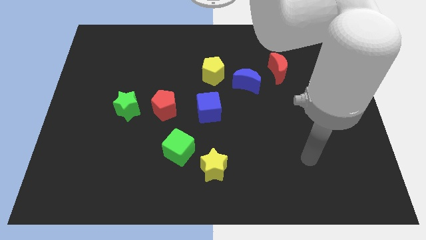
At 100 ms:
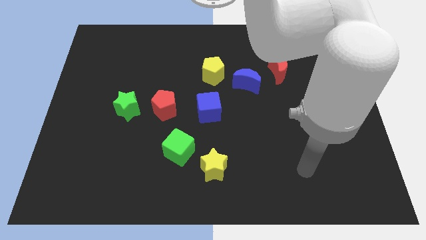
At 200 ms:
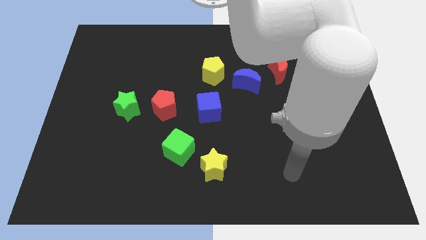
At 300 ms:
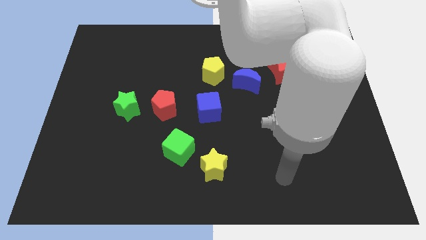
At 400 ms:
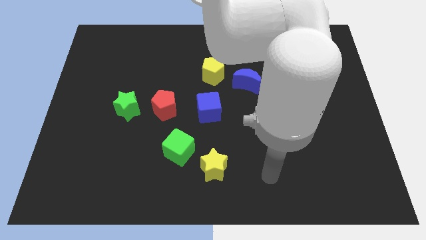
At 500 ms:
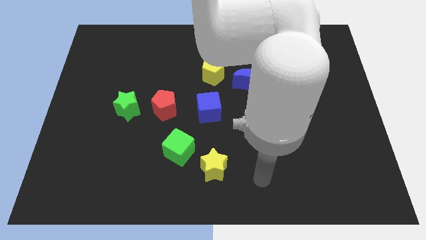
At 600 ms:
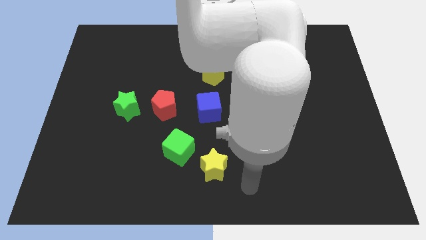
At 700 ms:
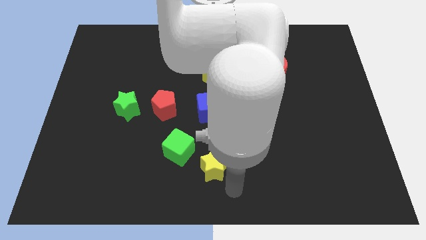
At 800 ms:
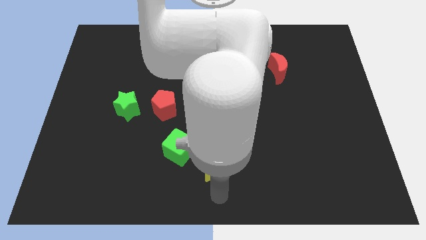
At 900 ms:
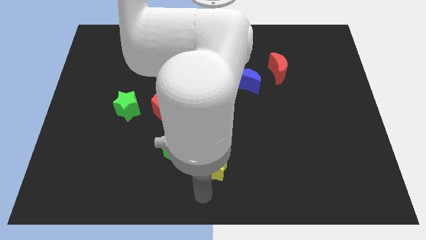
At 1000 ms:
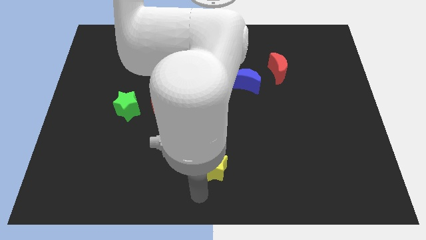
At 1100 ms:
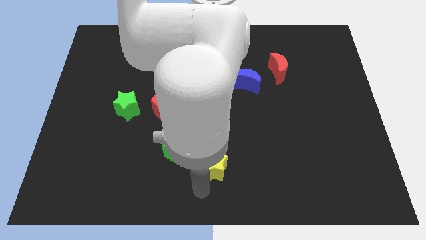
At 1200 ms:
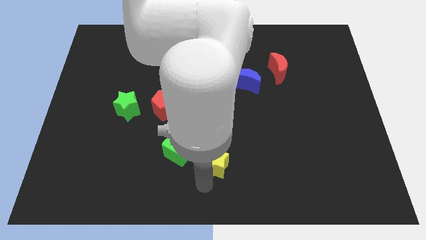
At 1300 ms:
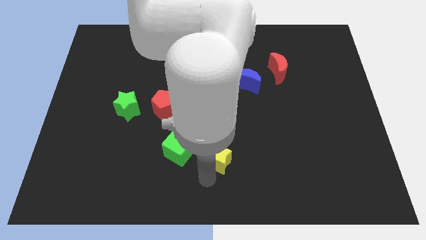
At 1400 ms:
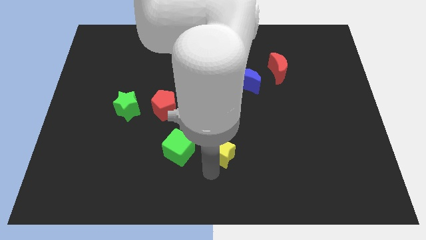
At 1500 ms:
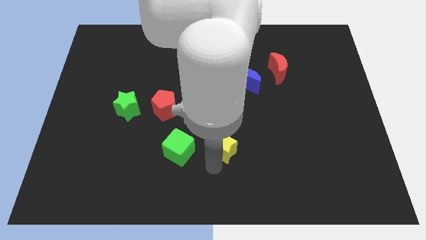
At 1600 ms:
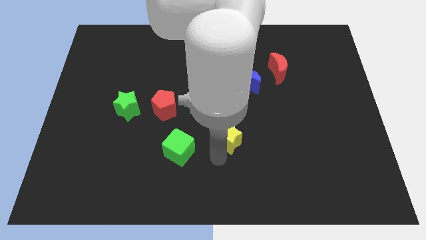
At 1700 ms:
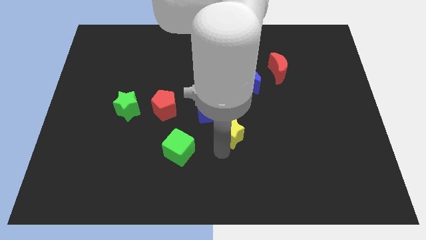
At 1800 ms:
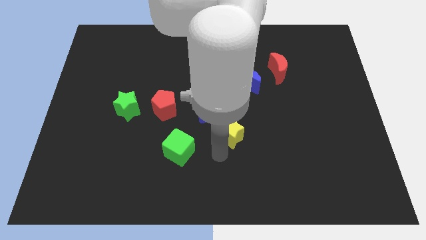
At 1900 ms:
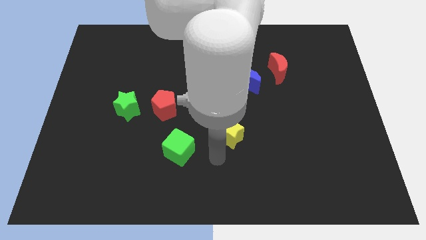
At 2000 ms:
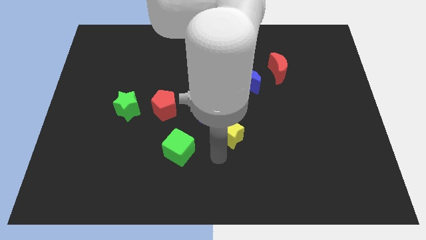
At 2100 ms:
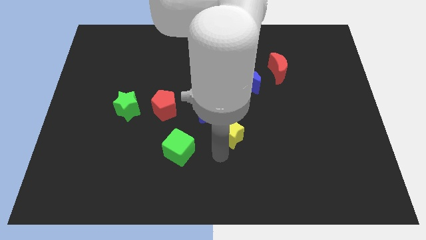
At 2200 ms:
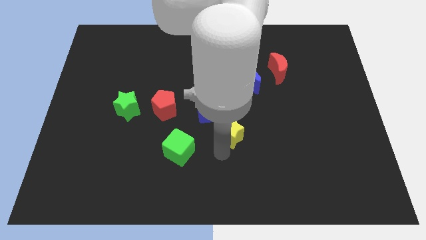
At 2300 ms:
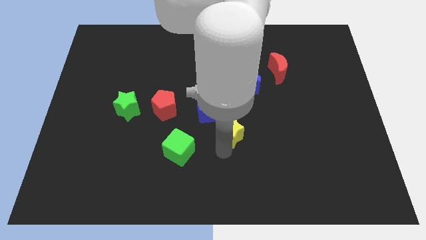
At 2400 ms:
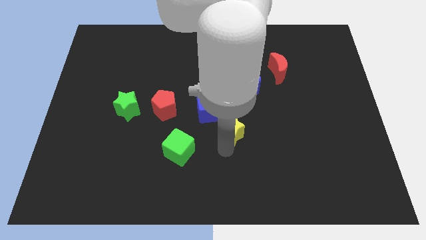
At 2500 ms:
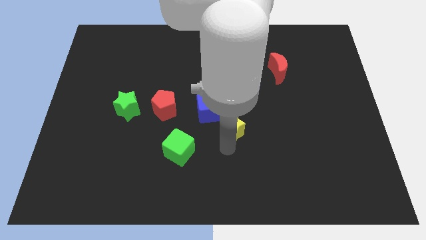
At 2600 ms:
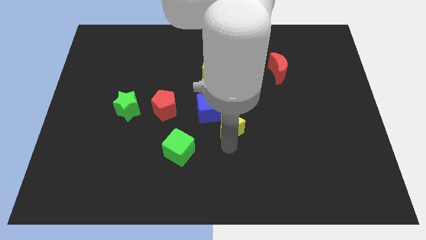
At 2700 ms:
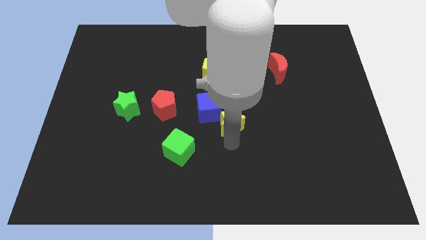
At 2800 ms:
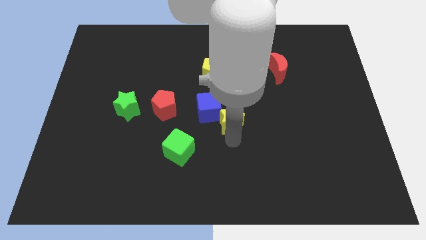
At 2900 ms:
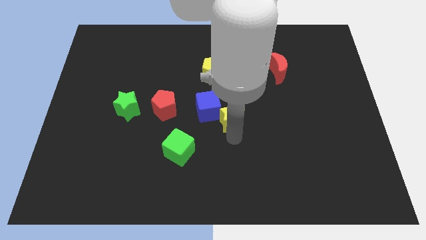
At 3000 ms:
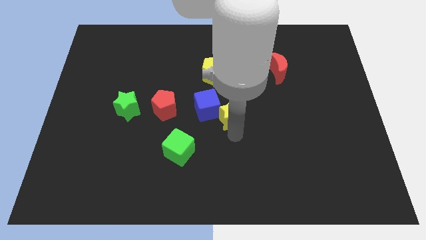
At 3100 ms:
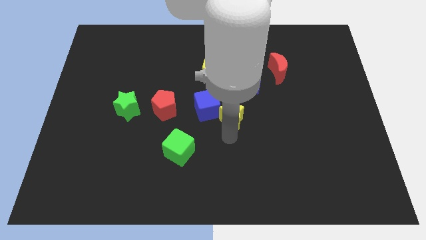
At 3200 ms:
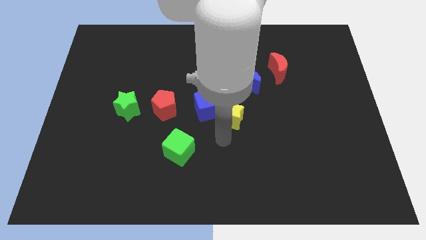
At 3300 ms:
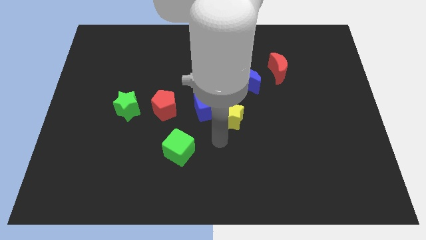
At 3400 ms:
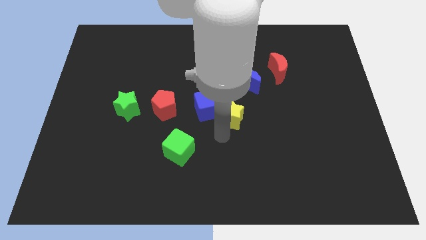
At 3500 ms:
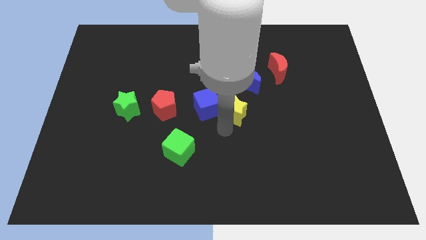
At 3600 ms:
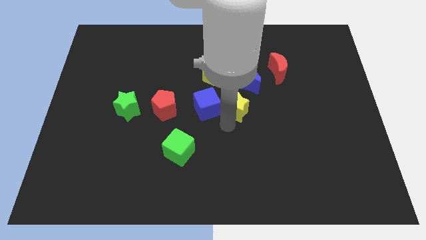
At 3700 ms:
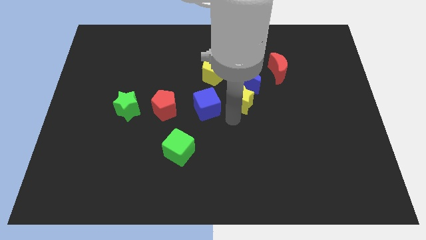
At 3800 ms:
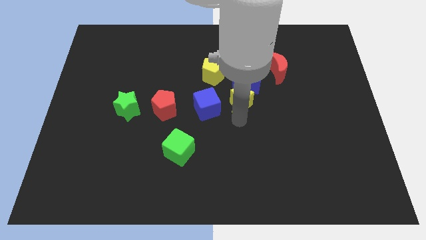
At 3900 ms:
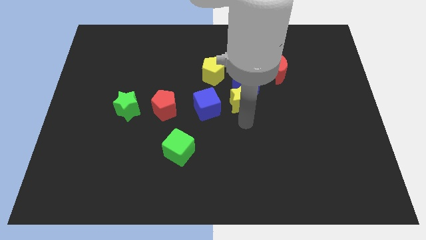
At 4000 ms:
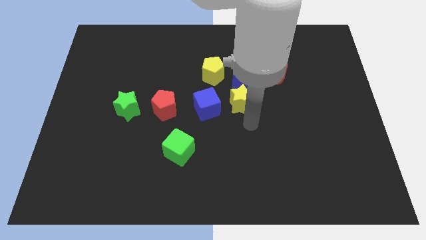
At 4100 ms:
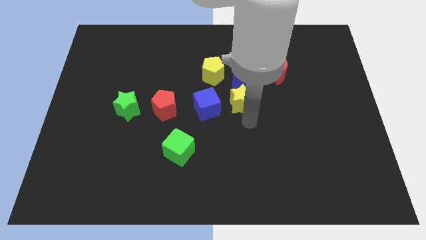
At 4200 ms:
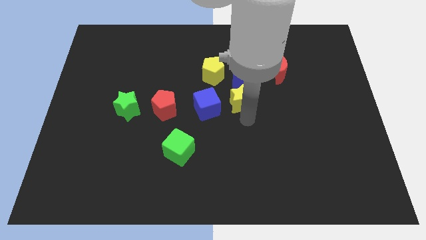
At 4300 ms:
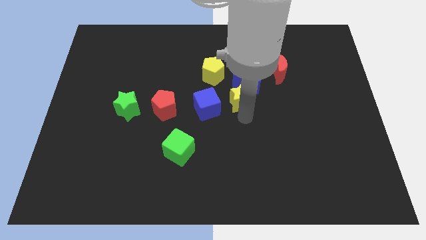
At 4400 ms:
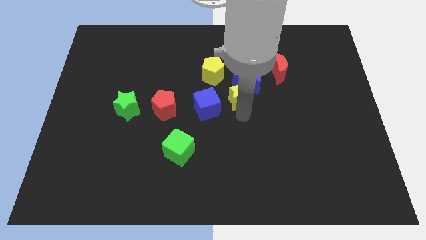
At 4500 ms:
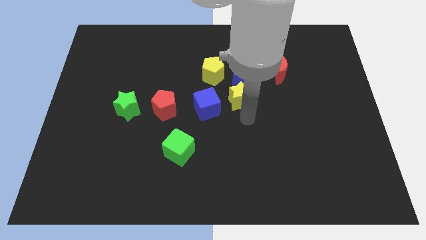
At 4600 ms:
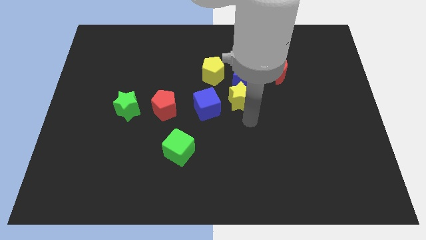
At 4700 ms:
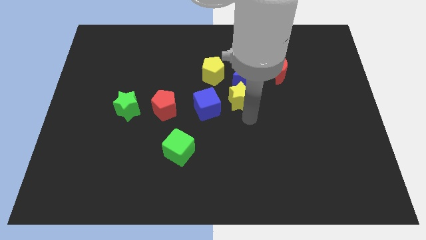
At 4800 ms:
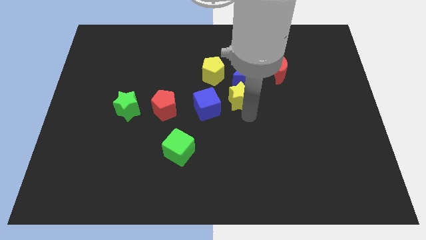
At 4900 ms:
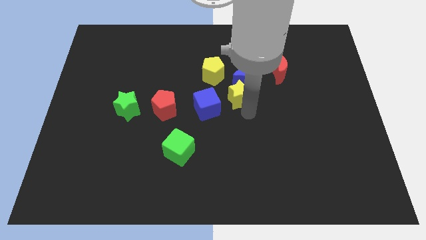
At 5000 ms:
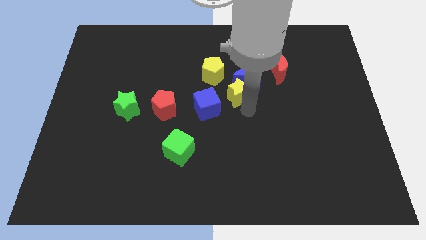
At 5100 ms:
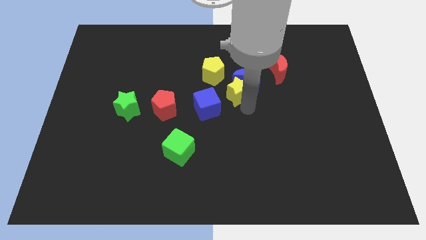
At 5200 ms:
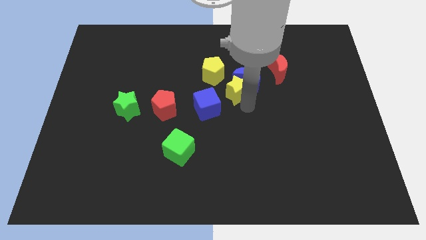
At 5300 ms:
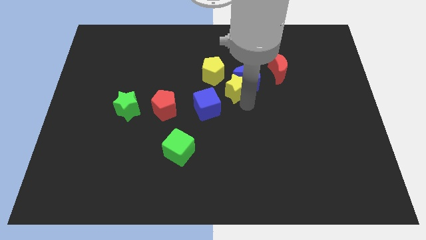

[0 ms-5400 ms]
move the yellow star up

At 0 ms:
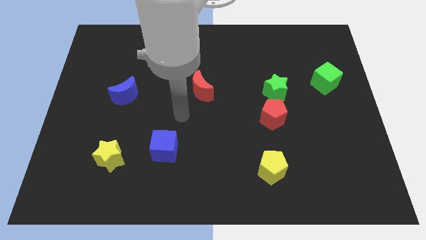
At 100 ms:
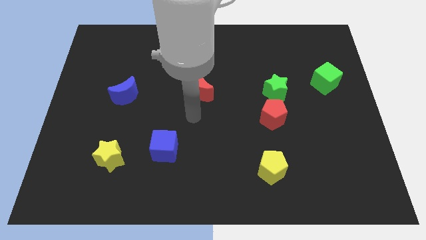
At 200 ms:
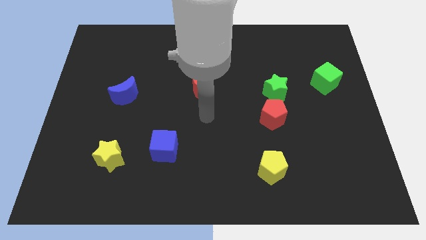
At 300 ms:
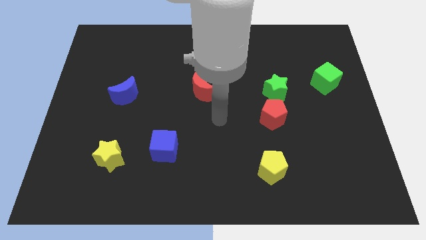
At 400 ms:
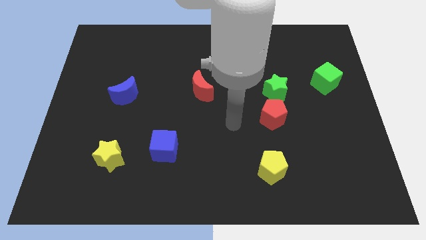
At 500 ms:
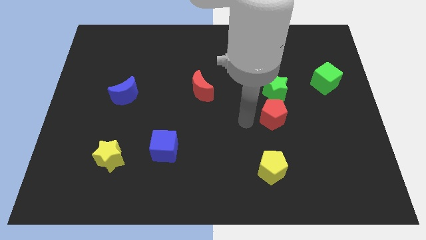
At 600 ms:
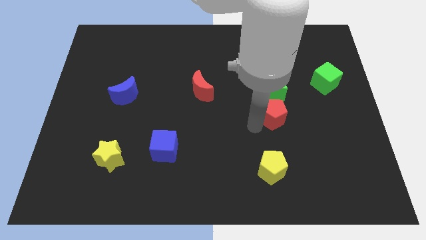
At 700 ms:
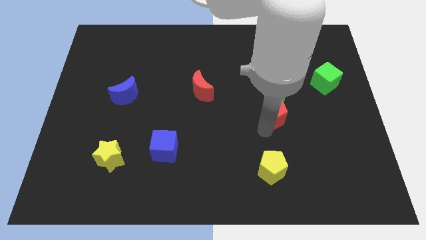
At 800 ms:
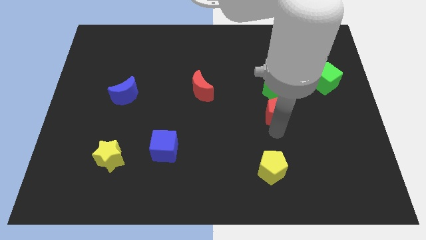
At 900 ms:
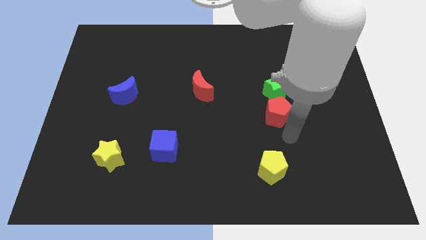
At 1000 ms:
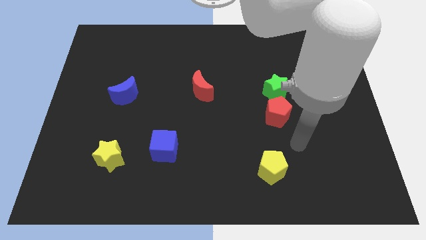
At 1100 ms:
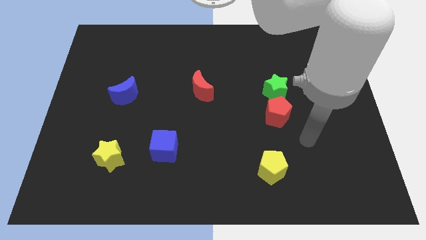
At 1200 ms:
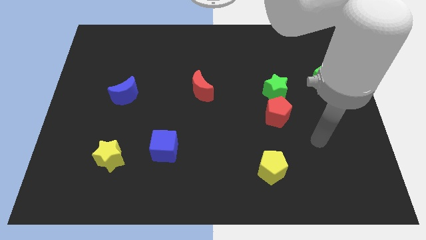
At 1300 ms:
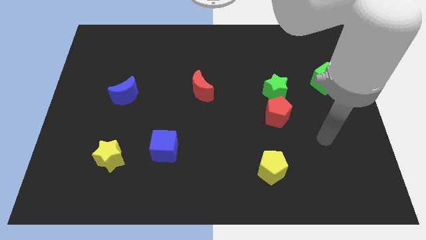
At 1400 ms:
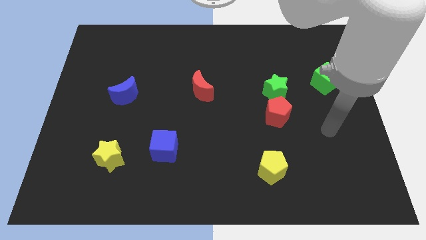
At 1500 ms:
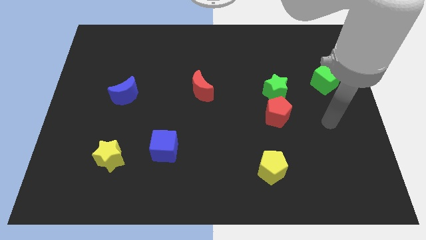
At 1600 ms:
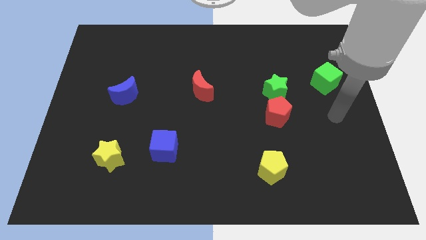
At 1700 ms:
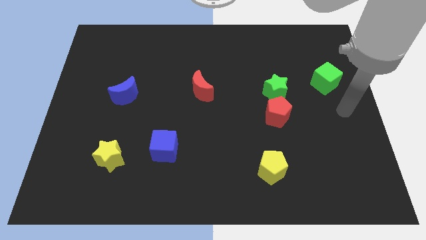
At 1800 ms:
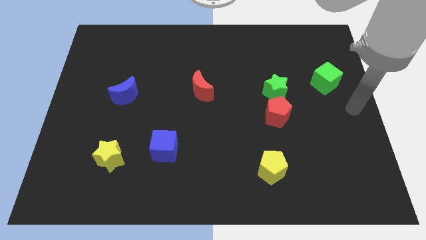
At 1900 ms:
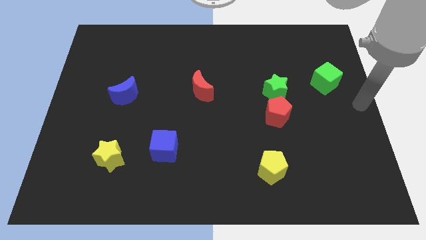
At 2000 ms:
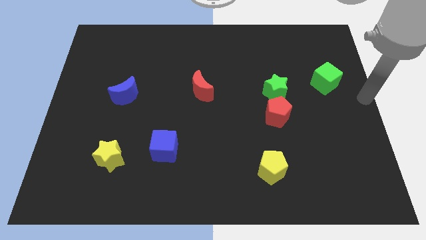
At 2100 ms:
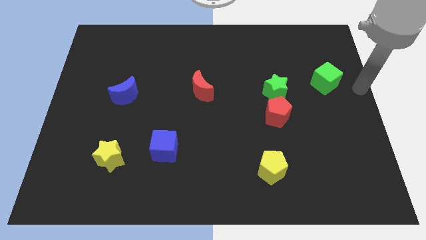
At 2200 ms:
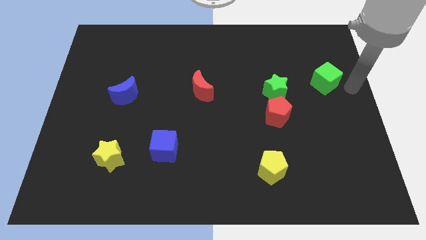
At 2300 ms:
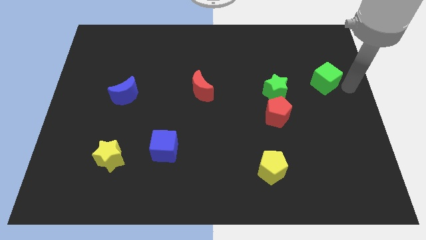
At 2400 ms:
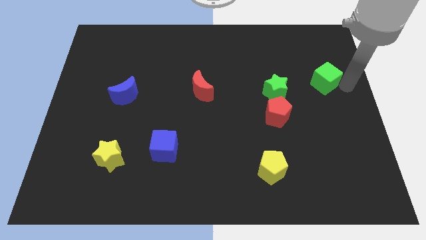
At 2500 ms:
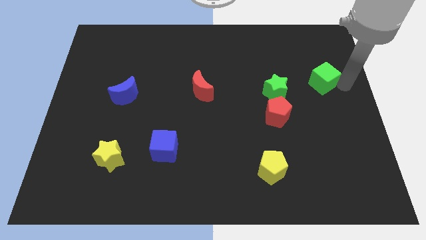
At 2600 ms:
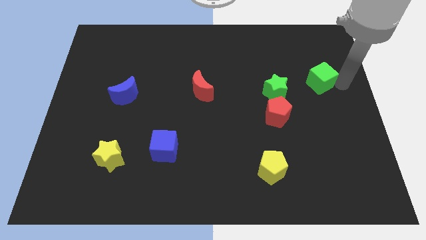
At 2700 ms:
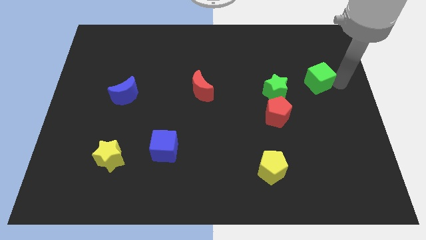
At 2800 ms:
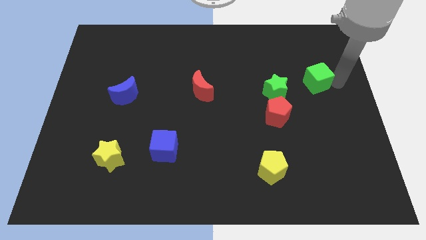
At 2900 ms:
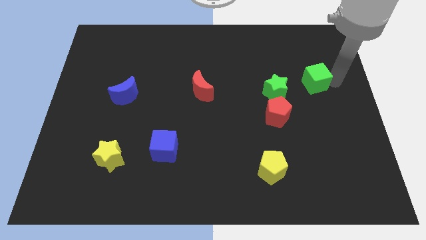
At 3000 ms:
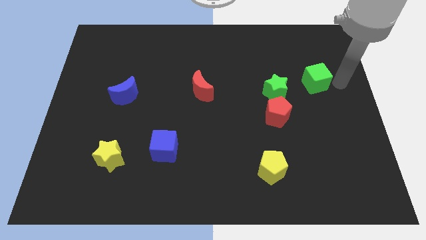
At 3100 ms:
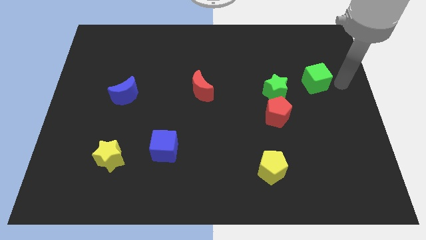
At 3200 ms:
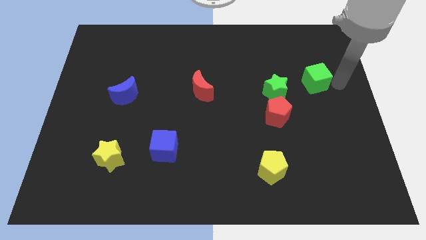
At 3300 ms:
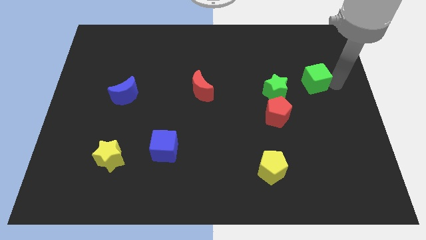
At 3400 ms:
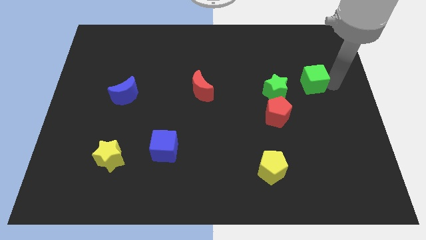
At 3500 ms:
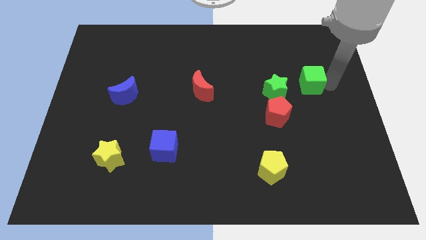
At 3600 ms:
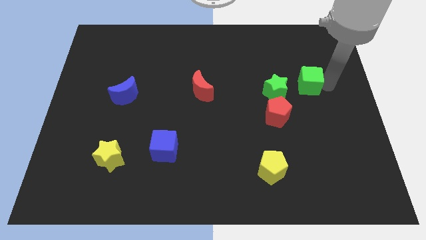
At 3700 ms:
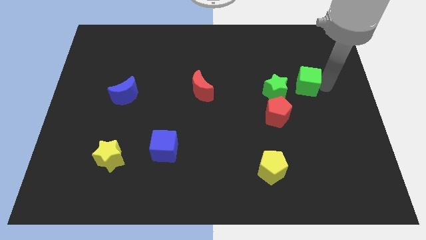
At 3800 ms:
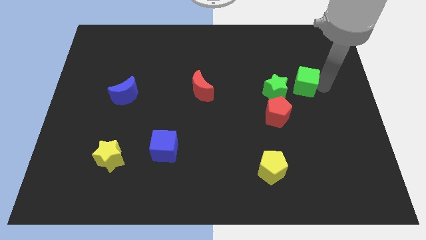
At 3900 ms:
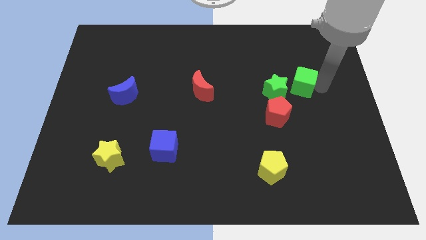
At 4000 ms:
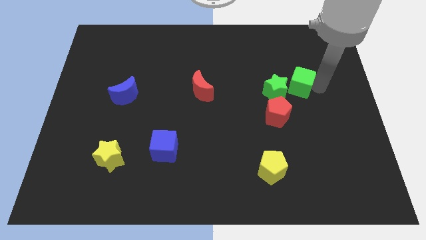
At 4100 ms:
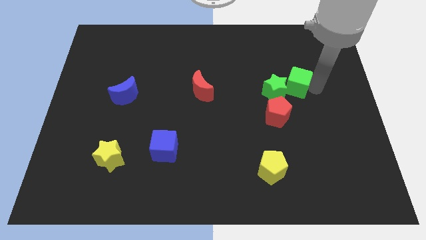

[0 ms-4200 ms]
slightly move the green cube left
